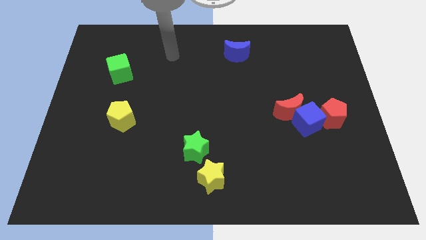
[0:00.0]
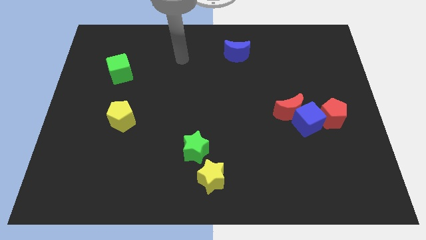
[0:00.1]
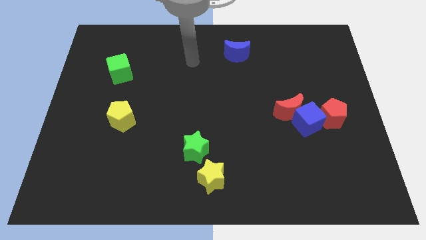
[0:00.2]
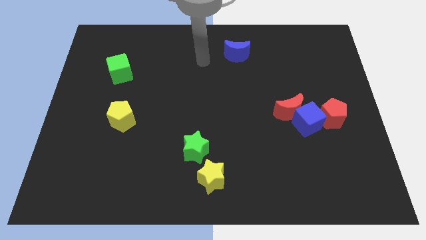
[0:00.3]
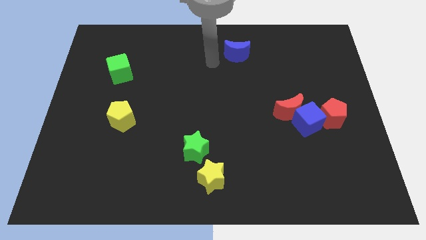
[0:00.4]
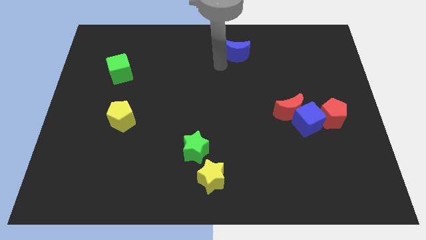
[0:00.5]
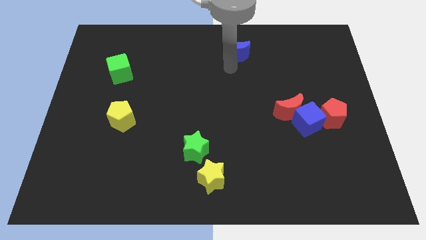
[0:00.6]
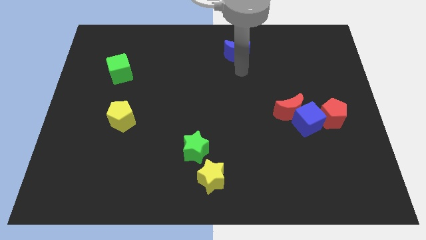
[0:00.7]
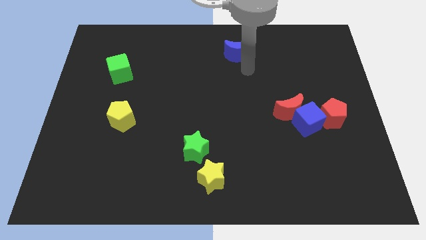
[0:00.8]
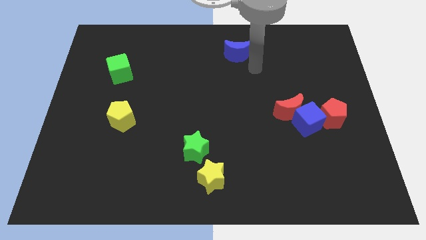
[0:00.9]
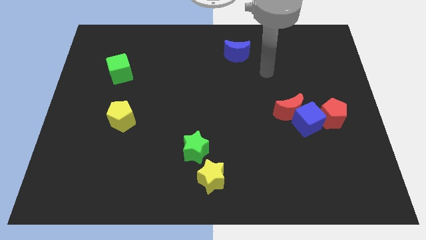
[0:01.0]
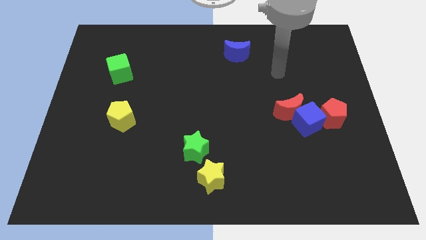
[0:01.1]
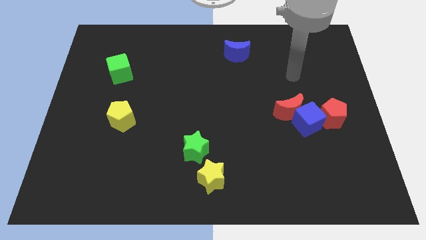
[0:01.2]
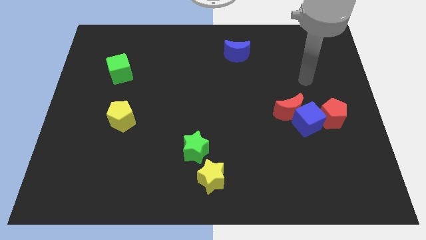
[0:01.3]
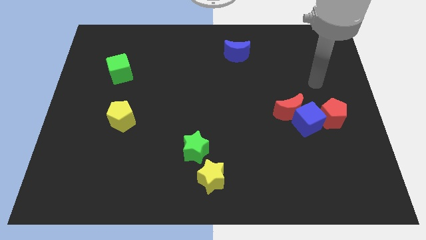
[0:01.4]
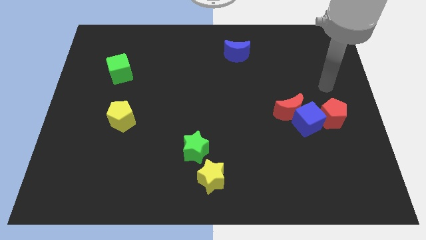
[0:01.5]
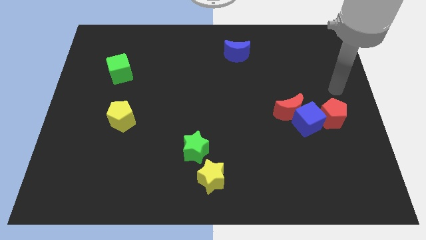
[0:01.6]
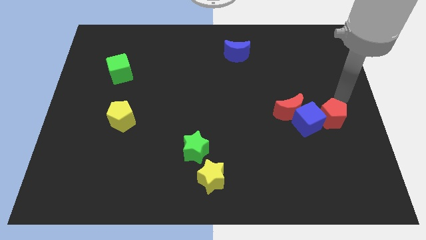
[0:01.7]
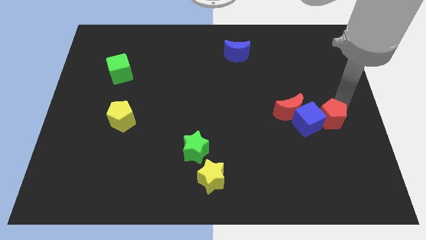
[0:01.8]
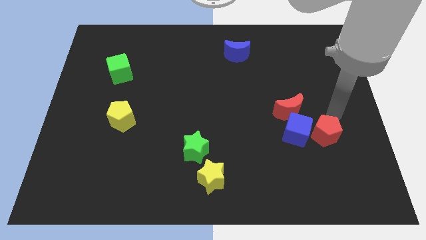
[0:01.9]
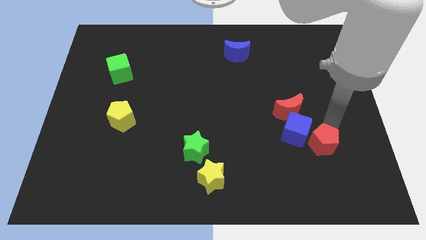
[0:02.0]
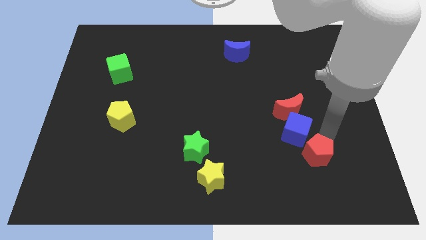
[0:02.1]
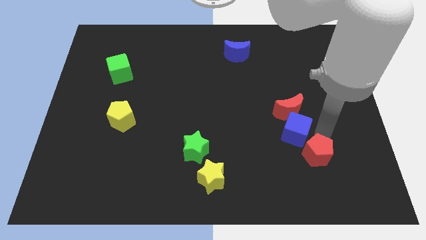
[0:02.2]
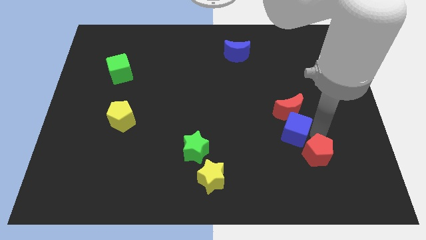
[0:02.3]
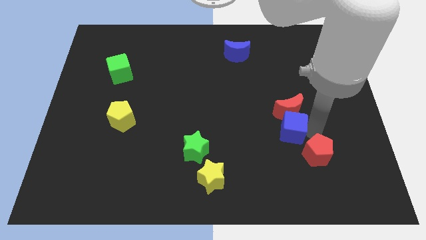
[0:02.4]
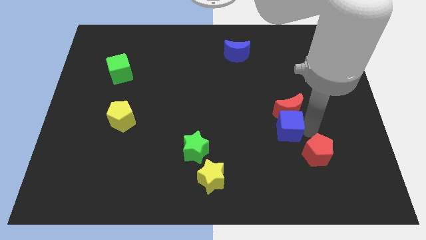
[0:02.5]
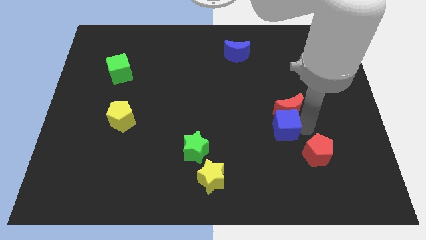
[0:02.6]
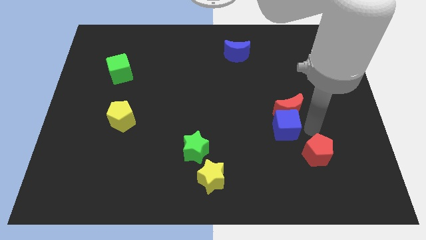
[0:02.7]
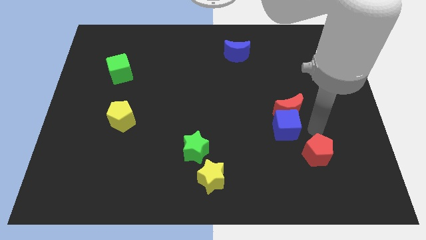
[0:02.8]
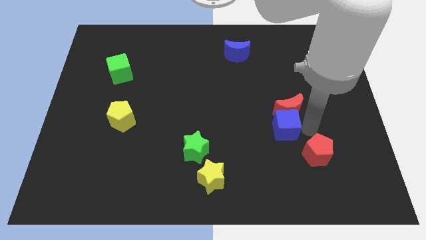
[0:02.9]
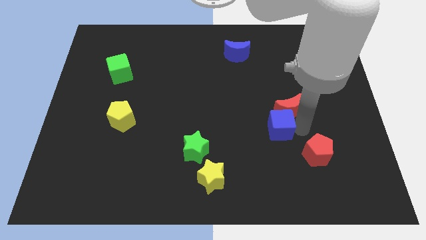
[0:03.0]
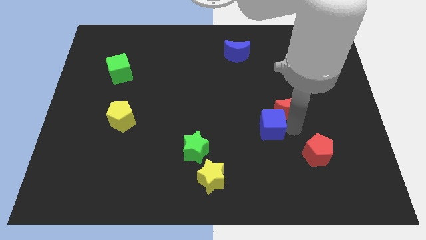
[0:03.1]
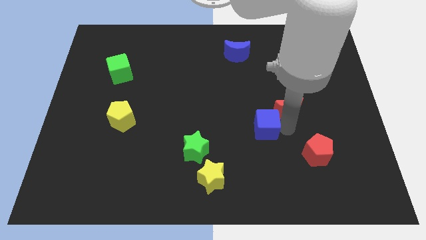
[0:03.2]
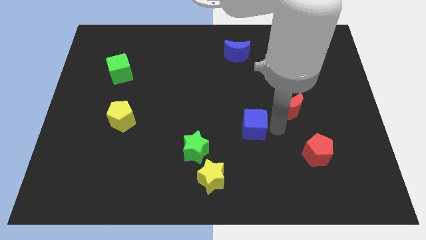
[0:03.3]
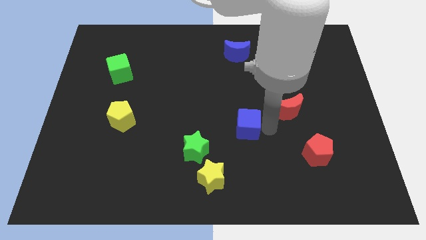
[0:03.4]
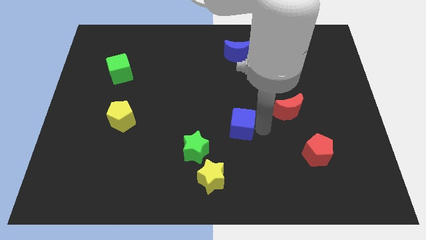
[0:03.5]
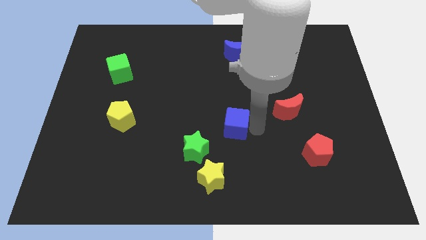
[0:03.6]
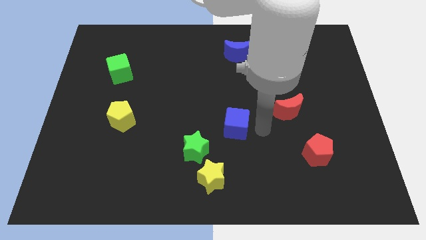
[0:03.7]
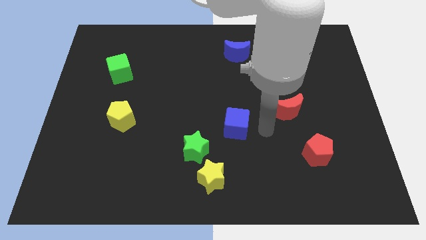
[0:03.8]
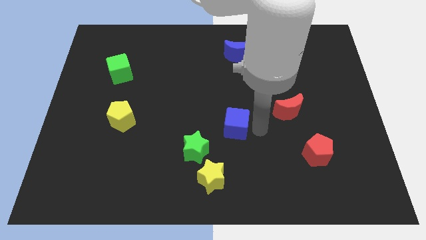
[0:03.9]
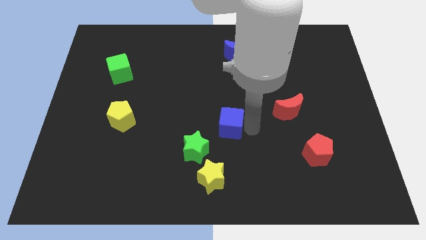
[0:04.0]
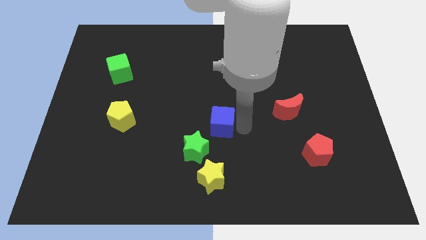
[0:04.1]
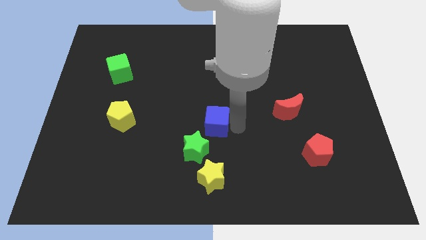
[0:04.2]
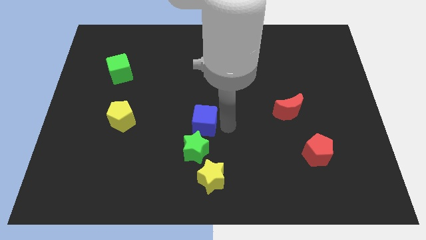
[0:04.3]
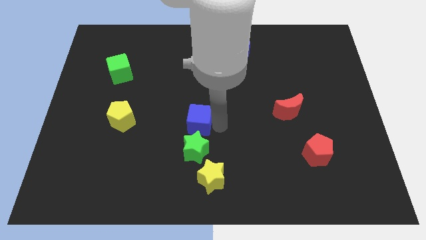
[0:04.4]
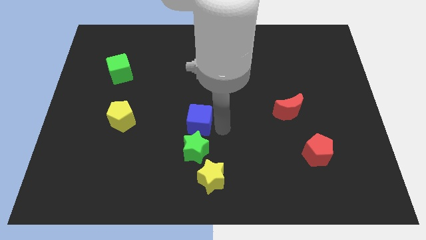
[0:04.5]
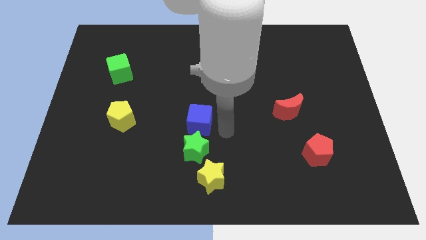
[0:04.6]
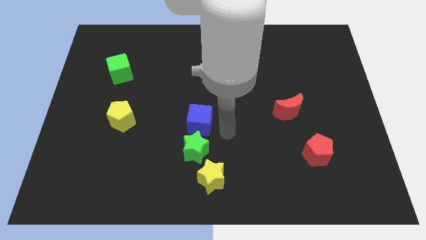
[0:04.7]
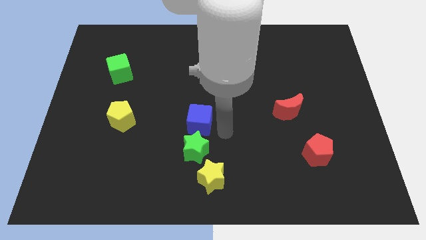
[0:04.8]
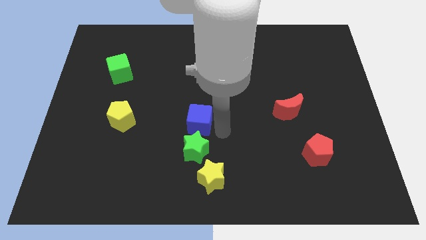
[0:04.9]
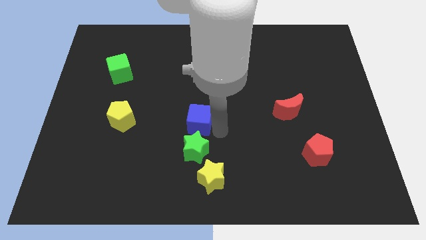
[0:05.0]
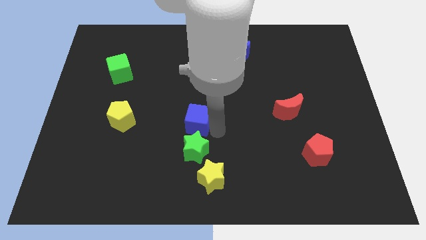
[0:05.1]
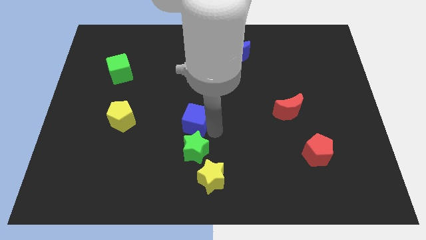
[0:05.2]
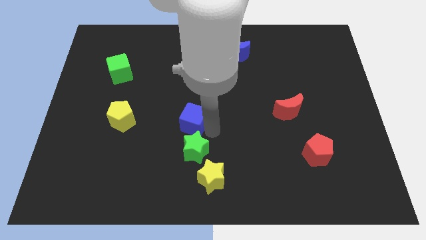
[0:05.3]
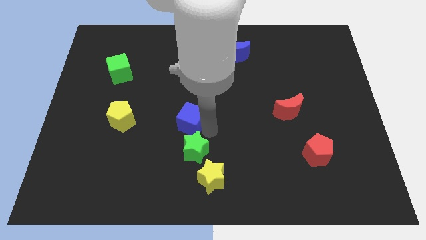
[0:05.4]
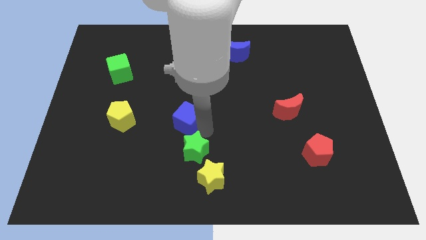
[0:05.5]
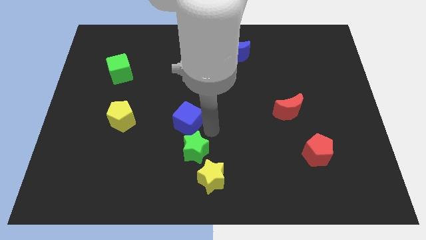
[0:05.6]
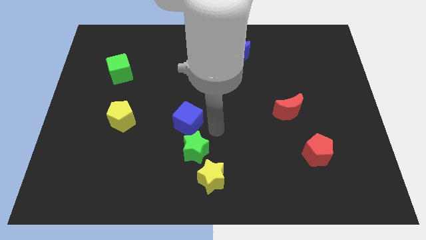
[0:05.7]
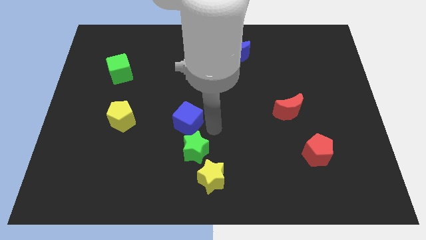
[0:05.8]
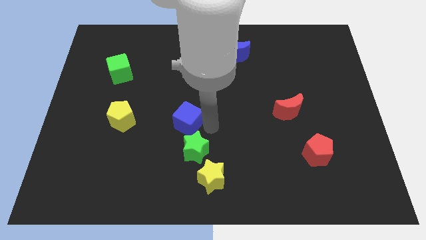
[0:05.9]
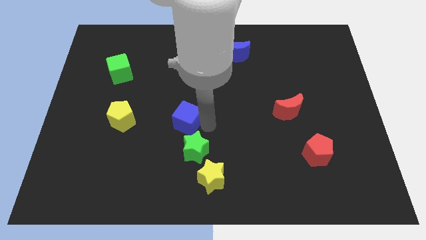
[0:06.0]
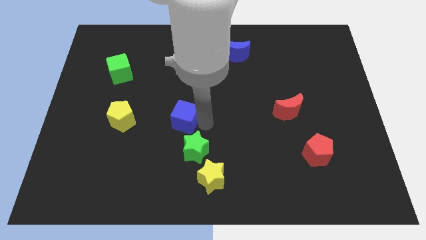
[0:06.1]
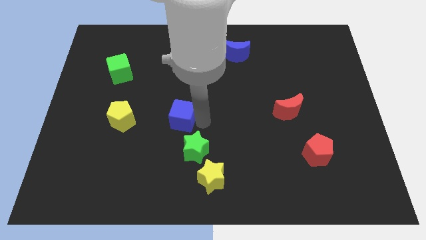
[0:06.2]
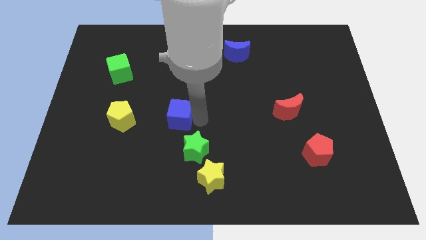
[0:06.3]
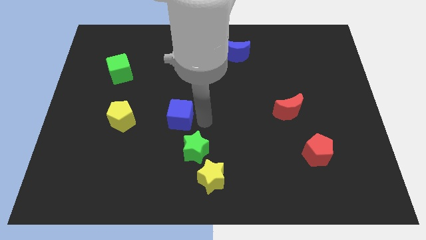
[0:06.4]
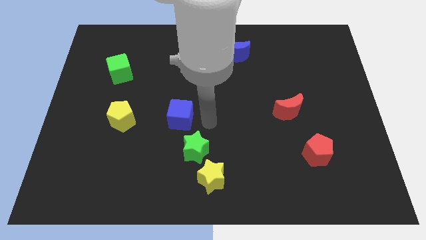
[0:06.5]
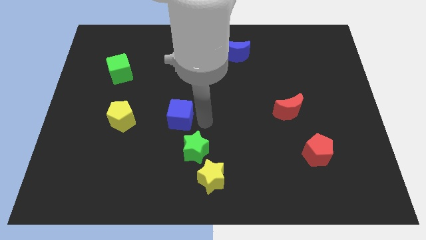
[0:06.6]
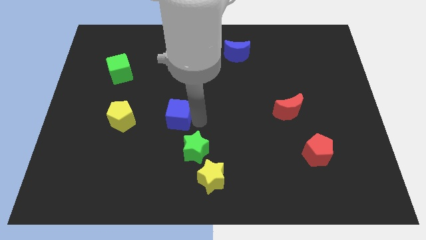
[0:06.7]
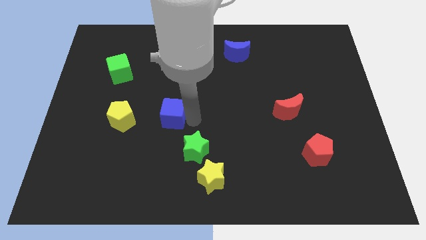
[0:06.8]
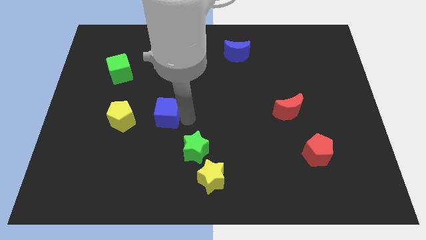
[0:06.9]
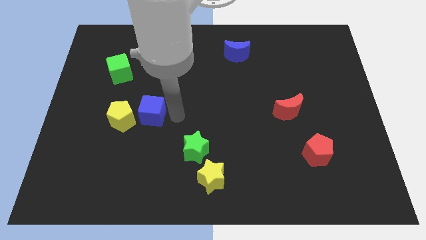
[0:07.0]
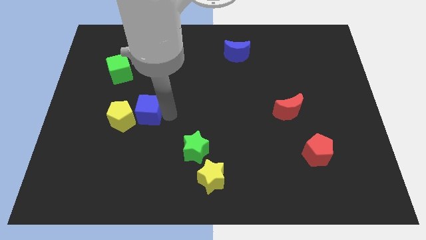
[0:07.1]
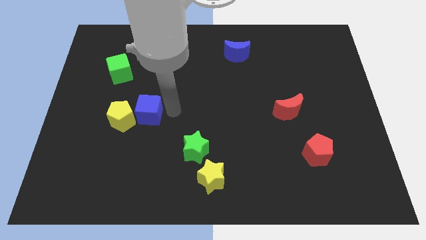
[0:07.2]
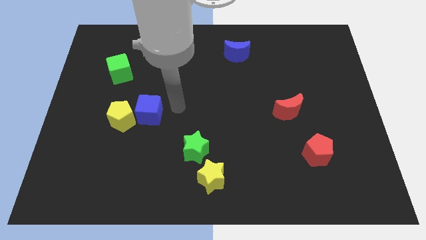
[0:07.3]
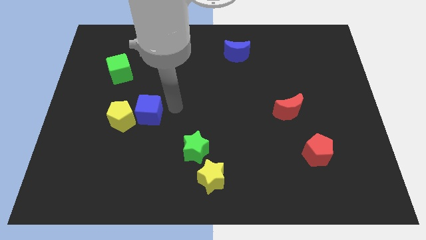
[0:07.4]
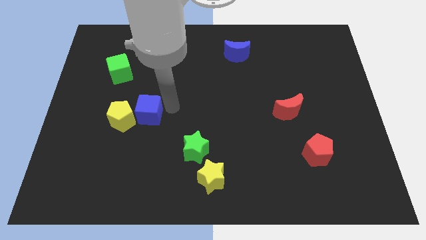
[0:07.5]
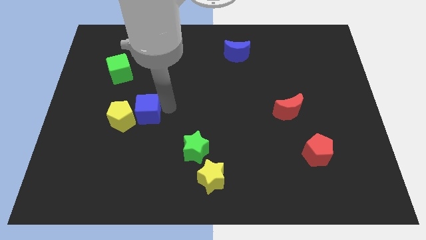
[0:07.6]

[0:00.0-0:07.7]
push the blue cube close to the yellow pentagon

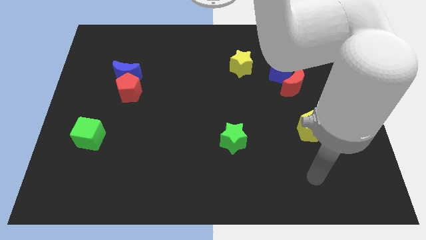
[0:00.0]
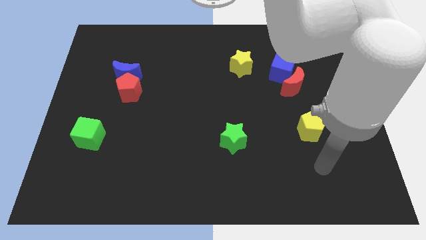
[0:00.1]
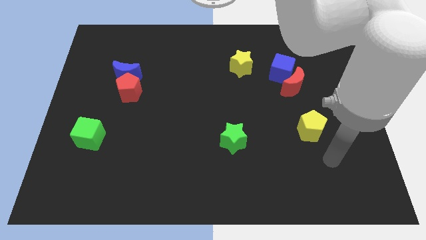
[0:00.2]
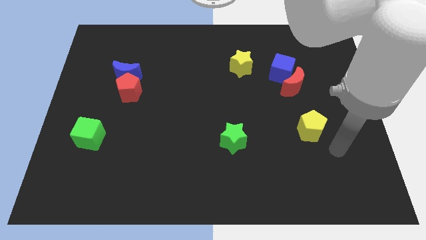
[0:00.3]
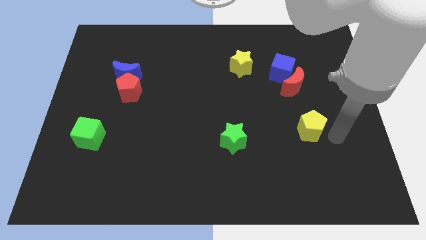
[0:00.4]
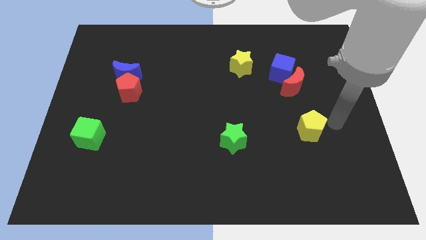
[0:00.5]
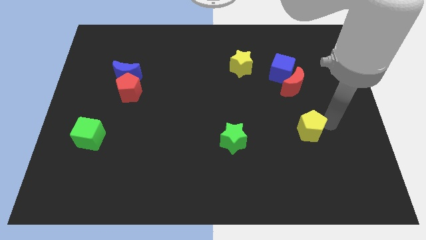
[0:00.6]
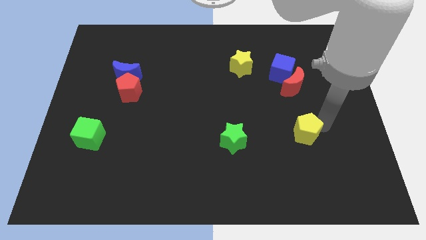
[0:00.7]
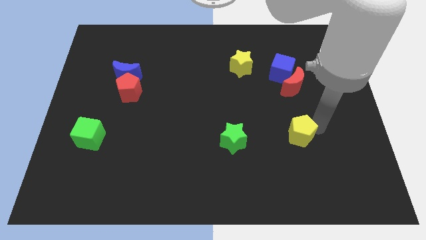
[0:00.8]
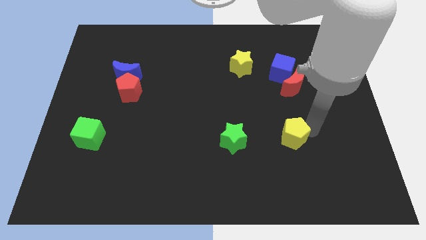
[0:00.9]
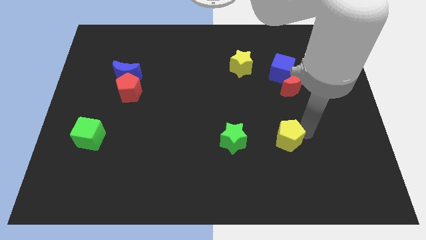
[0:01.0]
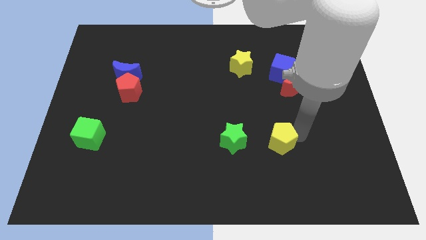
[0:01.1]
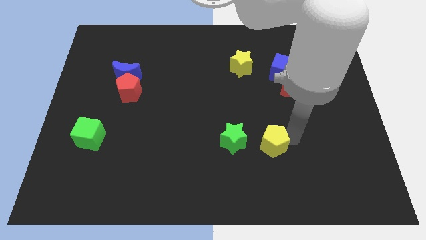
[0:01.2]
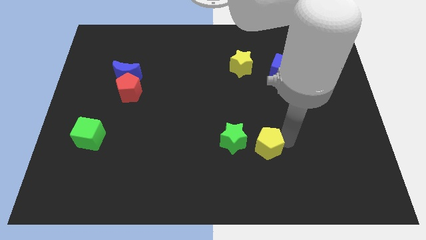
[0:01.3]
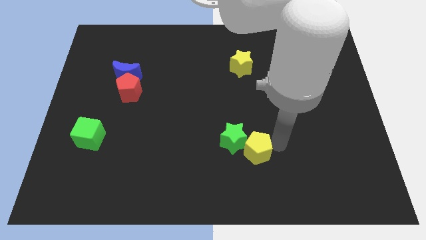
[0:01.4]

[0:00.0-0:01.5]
move the yellow pentagon next to the green star
